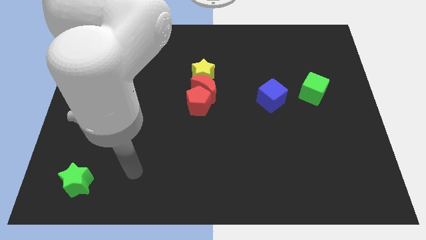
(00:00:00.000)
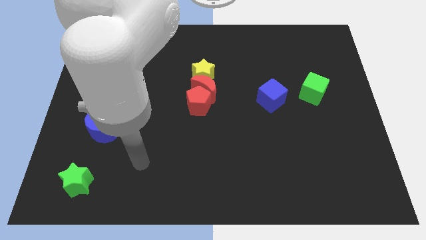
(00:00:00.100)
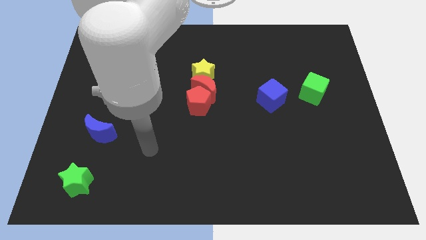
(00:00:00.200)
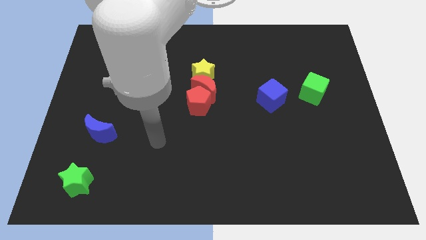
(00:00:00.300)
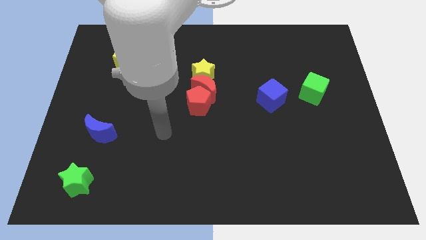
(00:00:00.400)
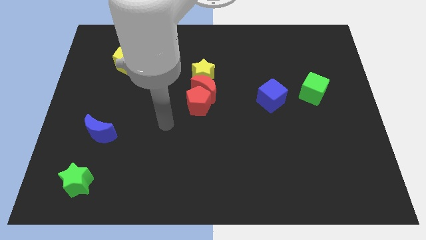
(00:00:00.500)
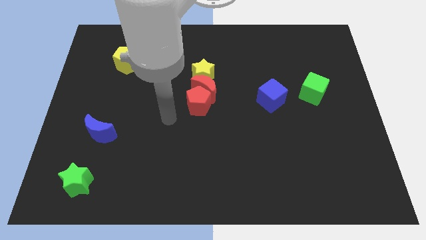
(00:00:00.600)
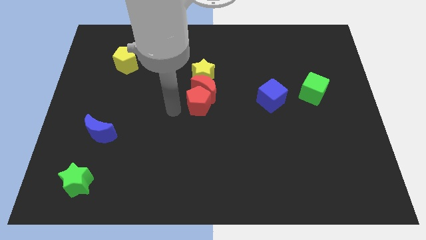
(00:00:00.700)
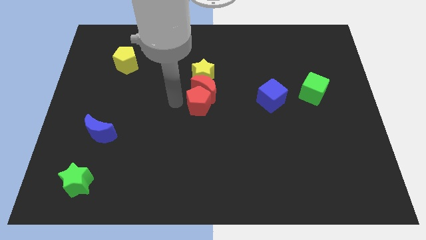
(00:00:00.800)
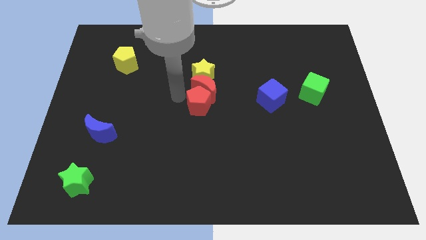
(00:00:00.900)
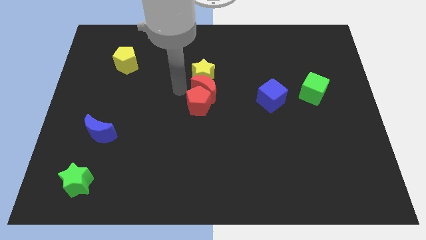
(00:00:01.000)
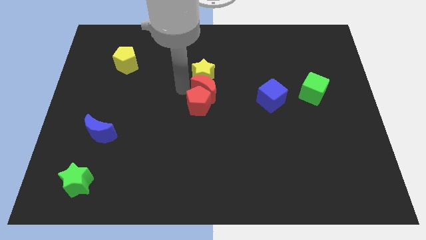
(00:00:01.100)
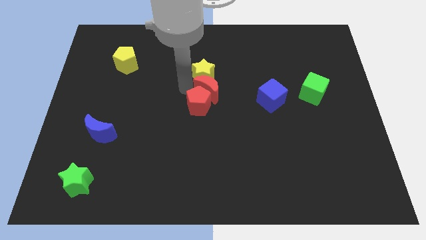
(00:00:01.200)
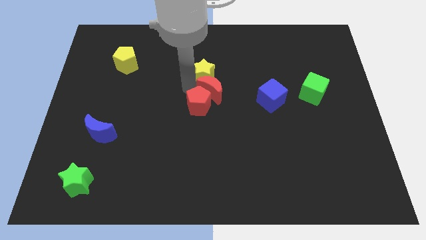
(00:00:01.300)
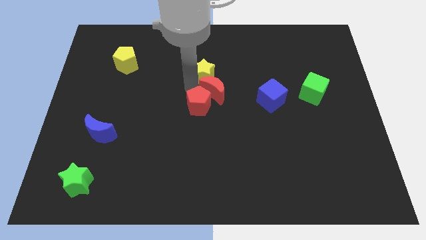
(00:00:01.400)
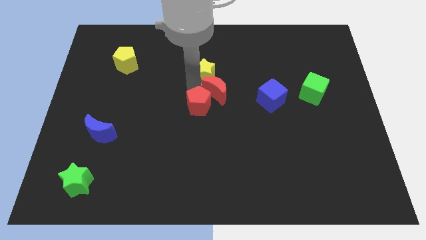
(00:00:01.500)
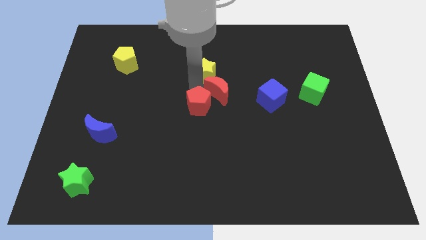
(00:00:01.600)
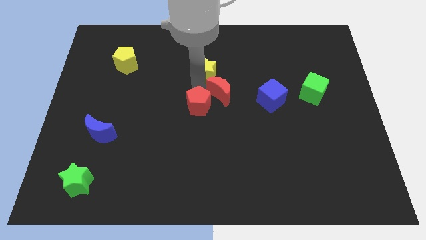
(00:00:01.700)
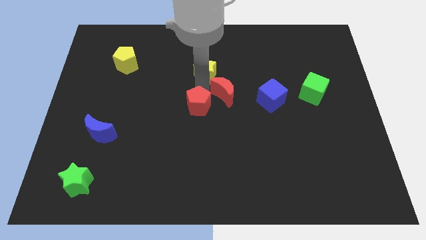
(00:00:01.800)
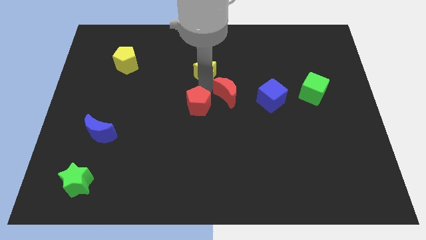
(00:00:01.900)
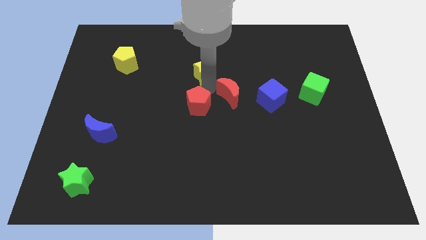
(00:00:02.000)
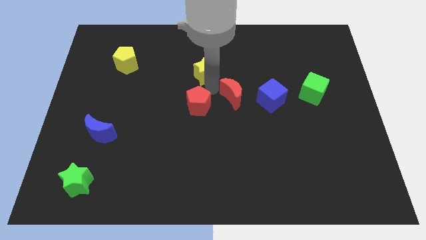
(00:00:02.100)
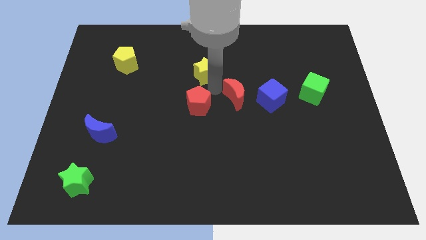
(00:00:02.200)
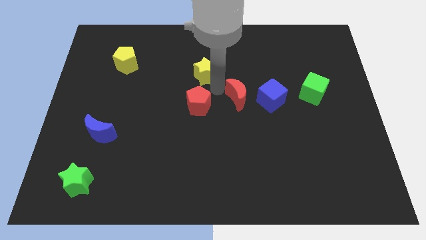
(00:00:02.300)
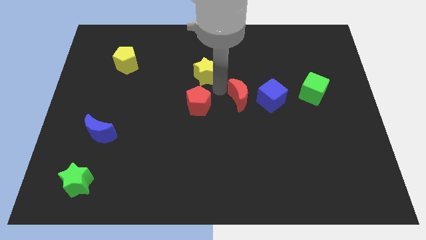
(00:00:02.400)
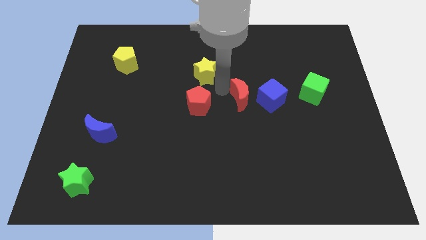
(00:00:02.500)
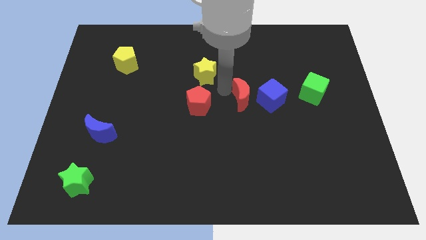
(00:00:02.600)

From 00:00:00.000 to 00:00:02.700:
move the red moon away from the yellow star and red pentagon

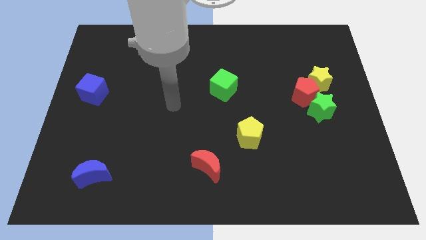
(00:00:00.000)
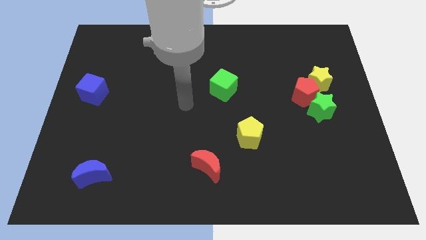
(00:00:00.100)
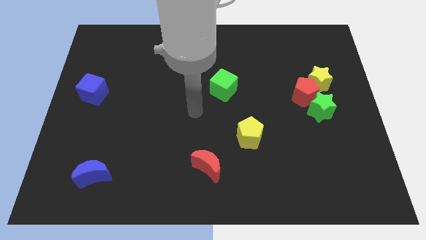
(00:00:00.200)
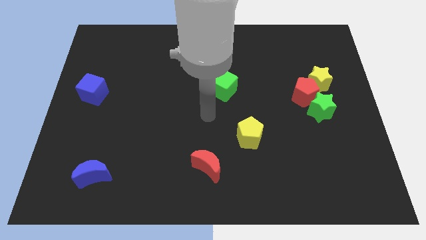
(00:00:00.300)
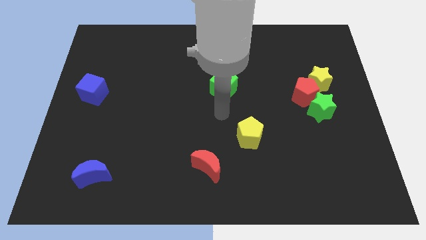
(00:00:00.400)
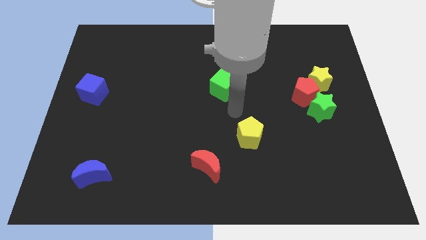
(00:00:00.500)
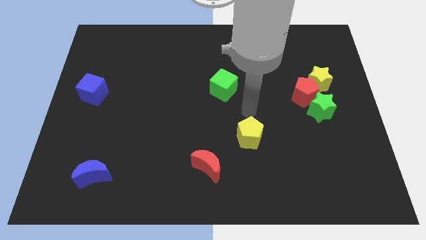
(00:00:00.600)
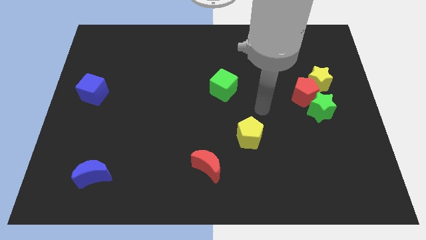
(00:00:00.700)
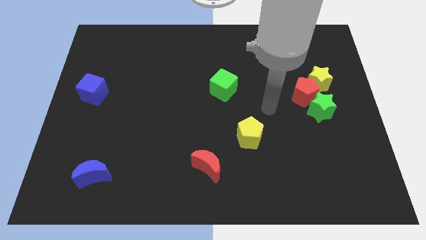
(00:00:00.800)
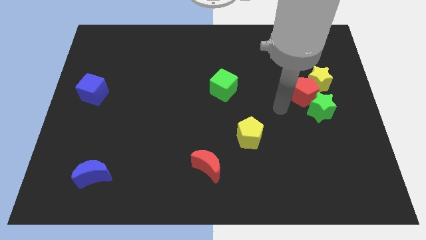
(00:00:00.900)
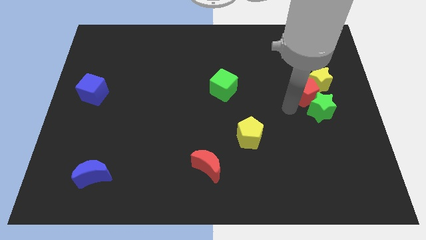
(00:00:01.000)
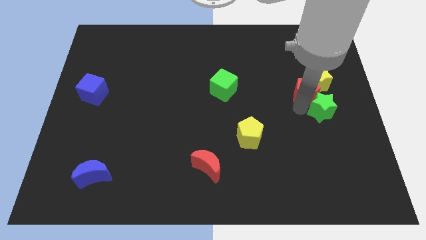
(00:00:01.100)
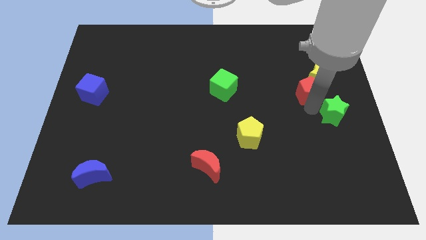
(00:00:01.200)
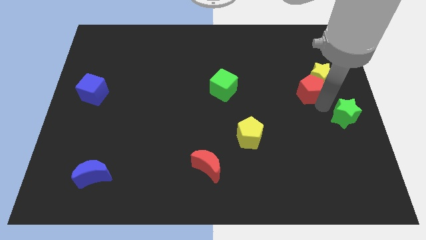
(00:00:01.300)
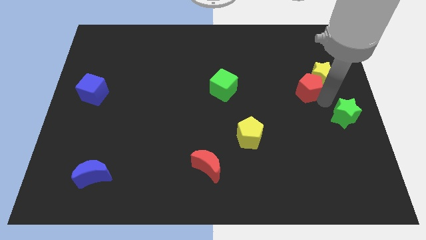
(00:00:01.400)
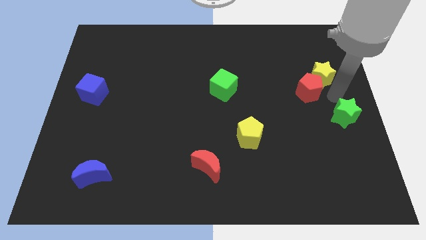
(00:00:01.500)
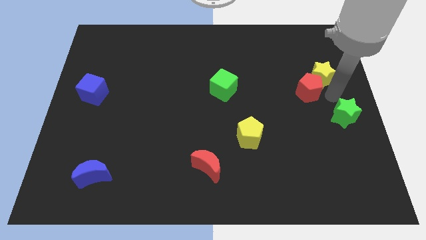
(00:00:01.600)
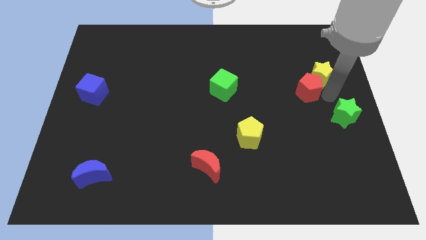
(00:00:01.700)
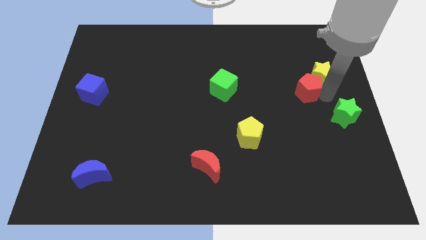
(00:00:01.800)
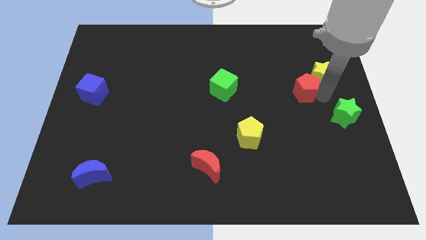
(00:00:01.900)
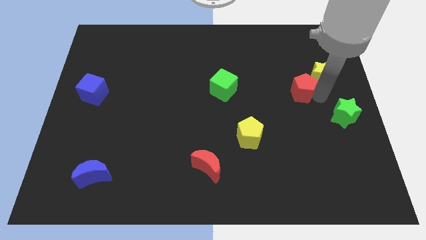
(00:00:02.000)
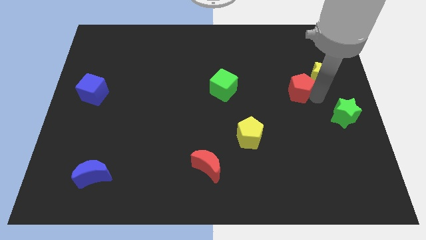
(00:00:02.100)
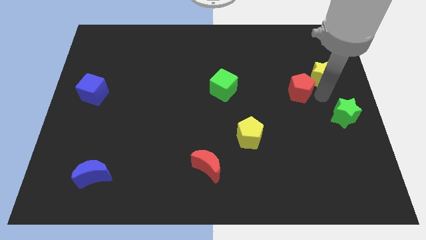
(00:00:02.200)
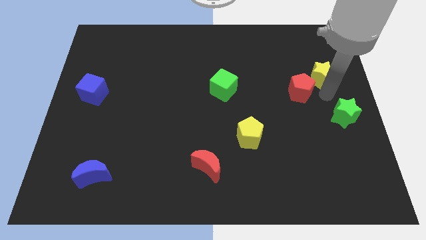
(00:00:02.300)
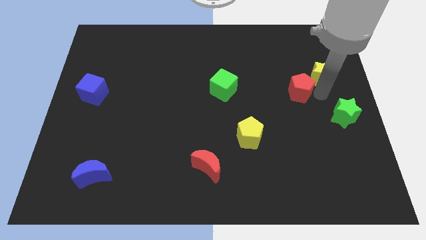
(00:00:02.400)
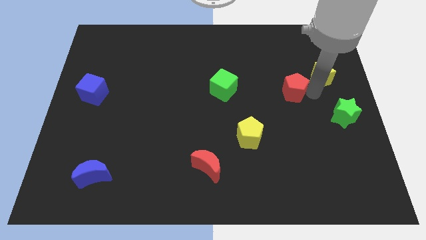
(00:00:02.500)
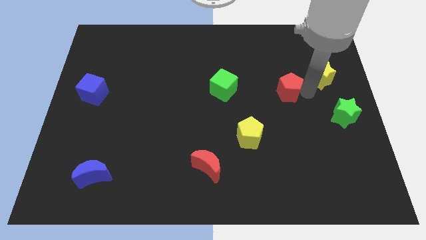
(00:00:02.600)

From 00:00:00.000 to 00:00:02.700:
separate the red pentagon from the green star and yellow star

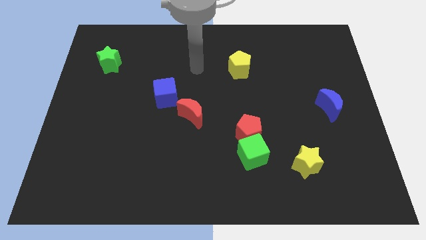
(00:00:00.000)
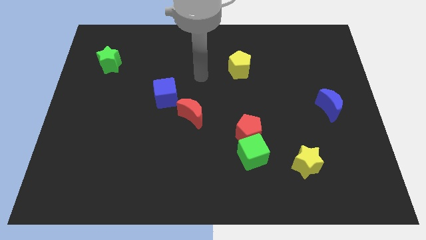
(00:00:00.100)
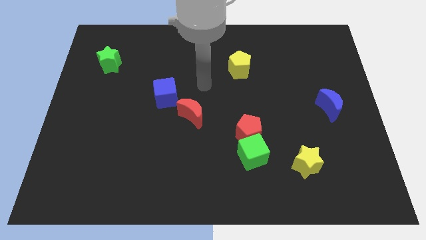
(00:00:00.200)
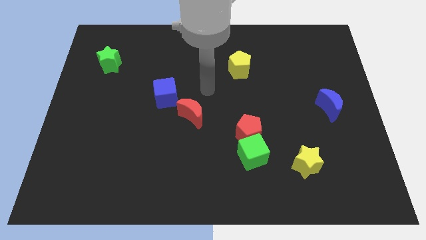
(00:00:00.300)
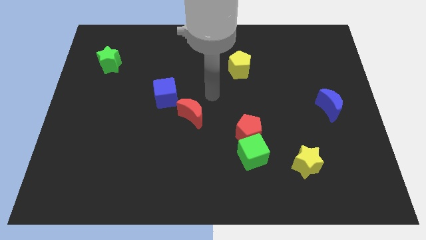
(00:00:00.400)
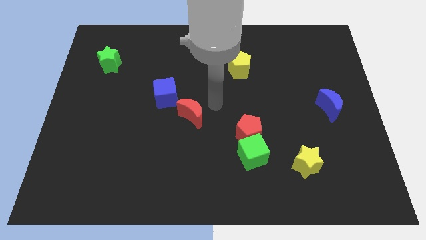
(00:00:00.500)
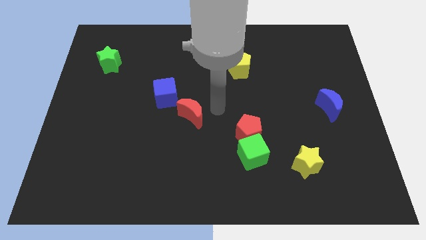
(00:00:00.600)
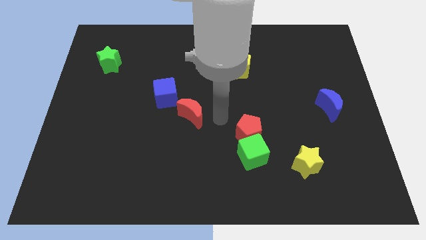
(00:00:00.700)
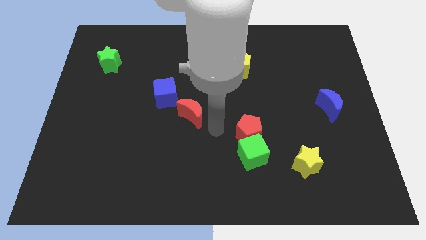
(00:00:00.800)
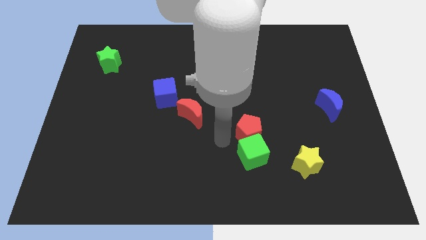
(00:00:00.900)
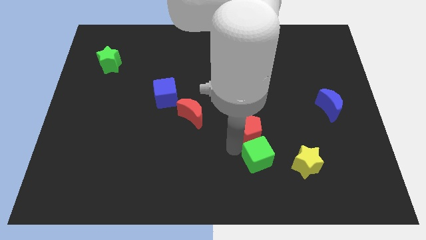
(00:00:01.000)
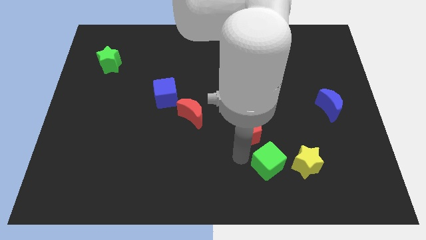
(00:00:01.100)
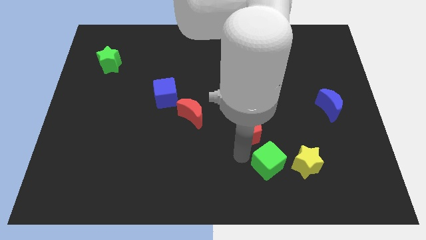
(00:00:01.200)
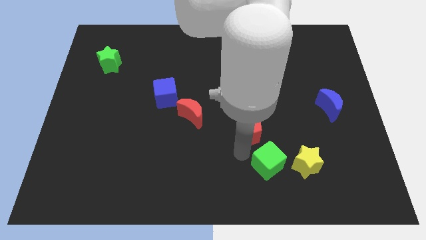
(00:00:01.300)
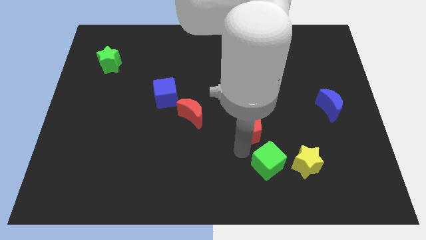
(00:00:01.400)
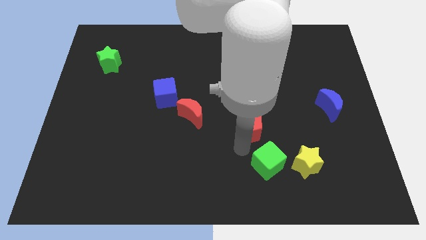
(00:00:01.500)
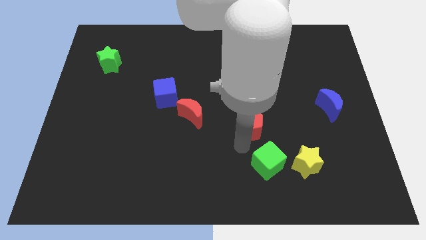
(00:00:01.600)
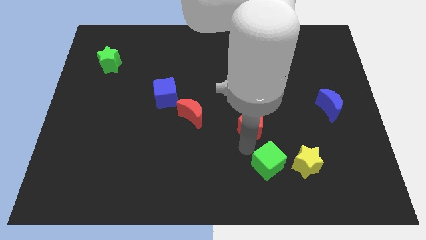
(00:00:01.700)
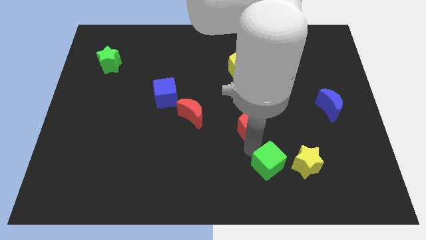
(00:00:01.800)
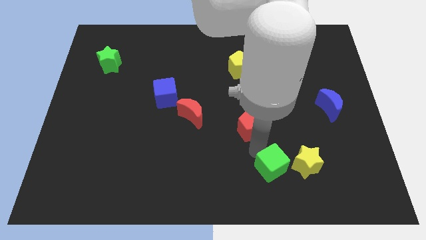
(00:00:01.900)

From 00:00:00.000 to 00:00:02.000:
pull the red pentagon apart from the green cube

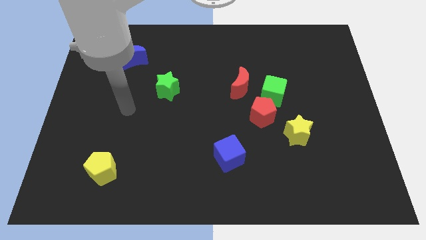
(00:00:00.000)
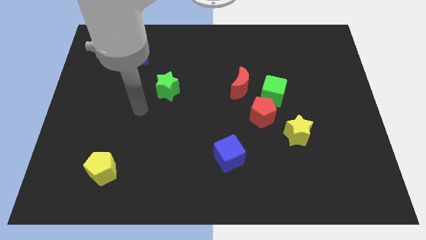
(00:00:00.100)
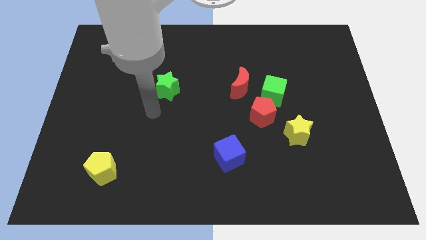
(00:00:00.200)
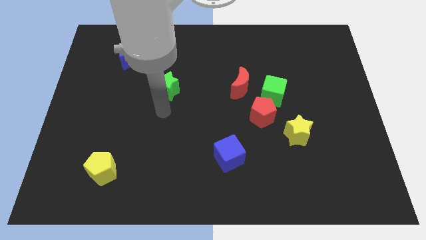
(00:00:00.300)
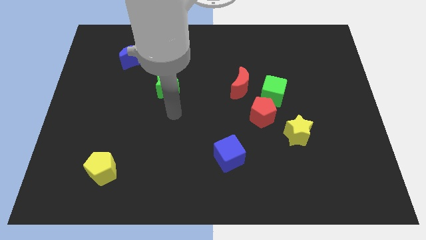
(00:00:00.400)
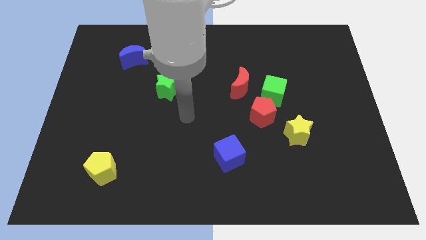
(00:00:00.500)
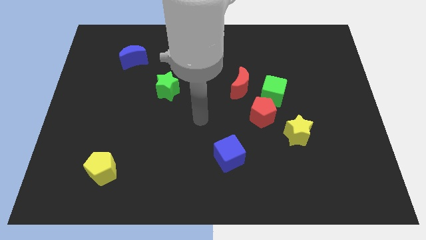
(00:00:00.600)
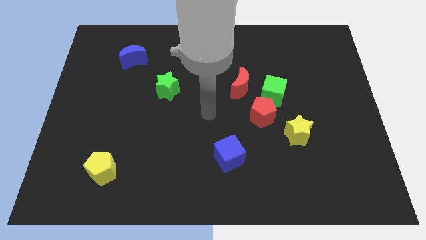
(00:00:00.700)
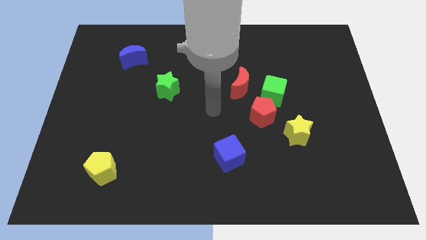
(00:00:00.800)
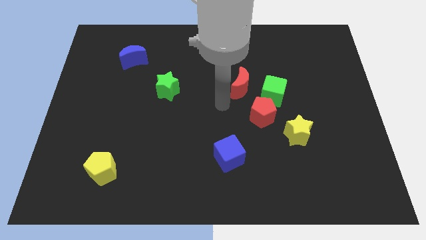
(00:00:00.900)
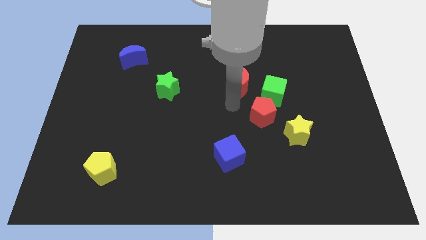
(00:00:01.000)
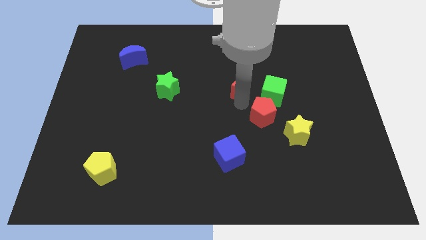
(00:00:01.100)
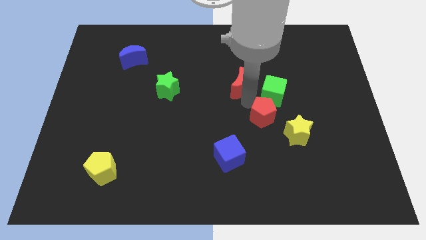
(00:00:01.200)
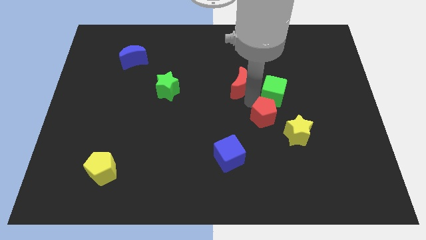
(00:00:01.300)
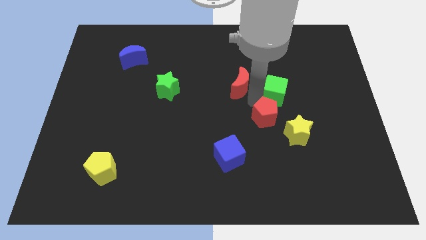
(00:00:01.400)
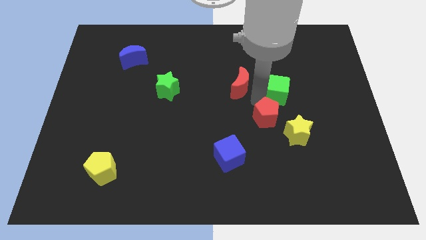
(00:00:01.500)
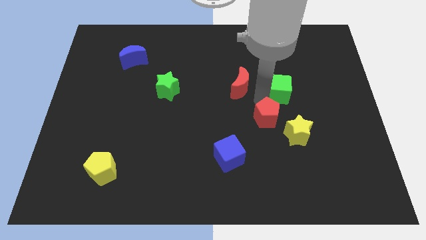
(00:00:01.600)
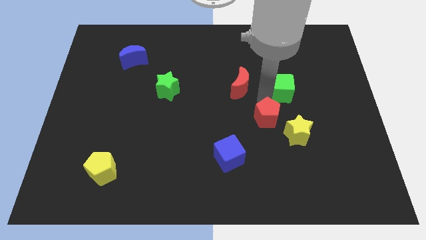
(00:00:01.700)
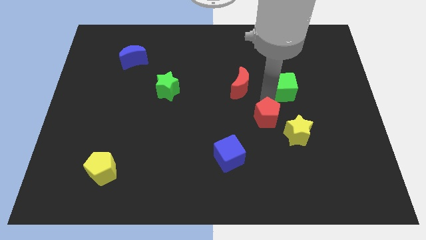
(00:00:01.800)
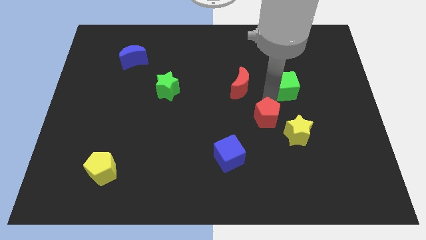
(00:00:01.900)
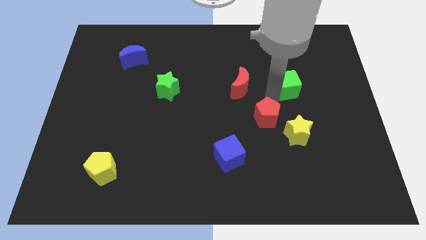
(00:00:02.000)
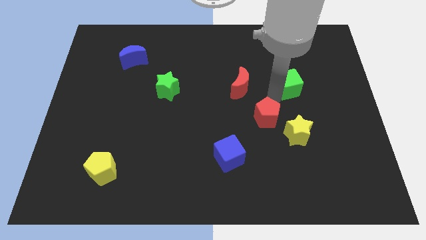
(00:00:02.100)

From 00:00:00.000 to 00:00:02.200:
pull the green cube apart from the red pentagon and red moon
